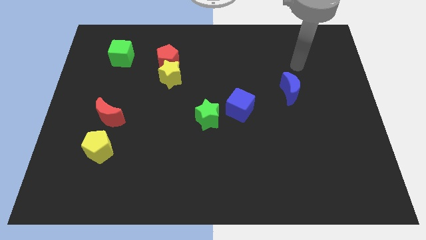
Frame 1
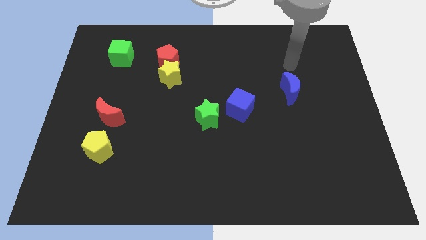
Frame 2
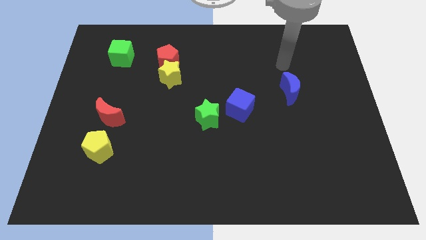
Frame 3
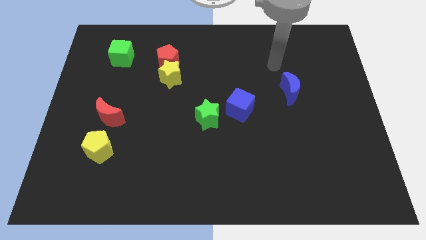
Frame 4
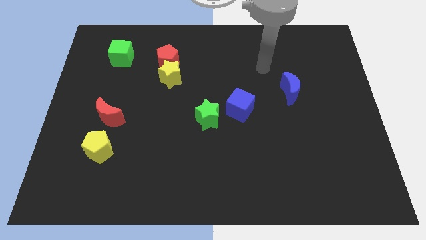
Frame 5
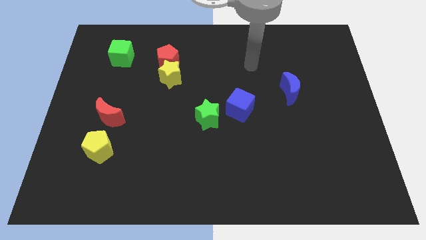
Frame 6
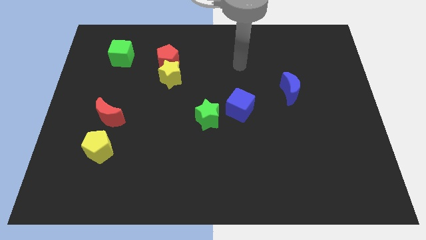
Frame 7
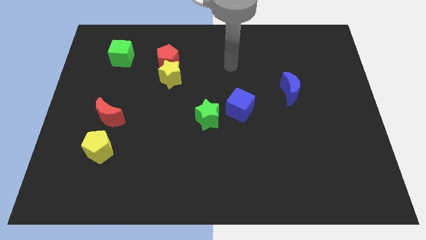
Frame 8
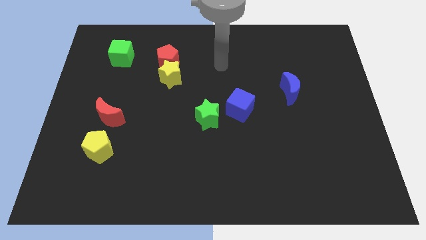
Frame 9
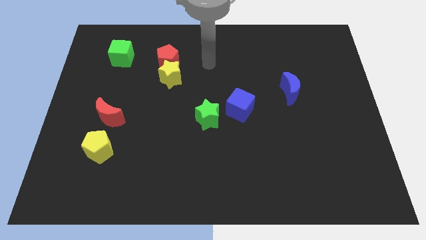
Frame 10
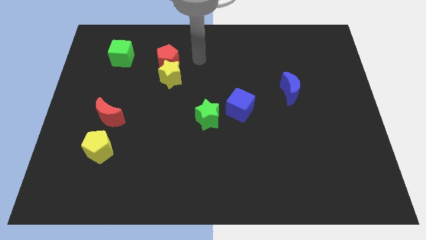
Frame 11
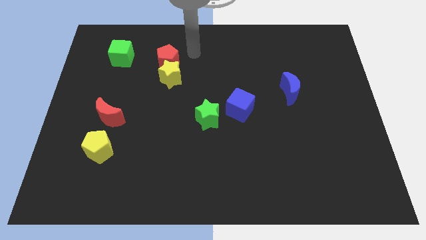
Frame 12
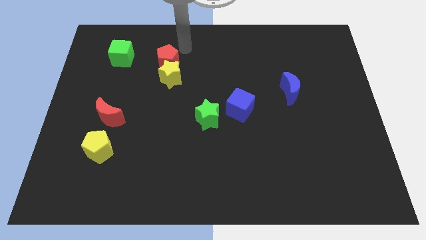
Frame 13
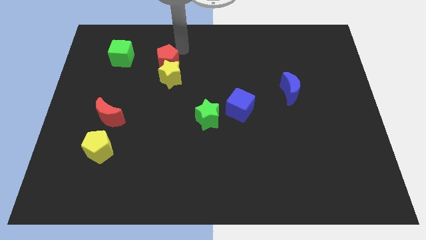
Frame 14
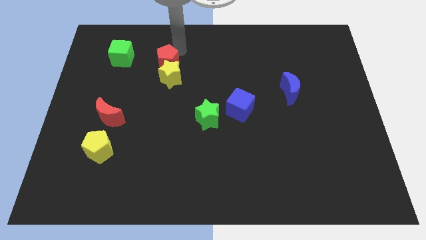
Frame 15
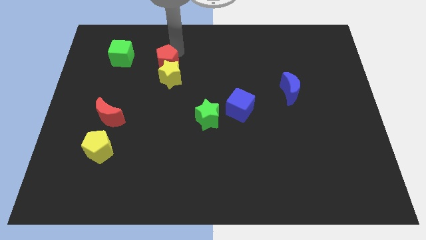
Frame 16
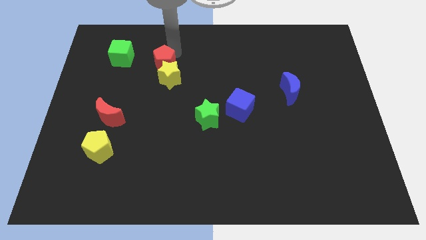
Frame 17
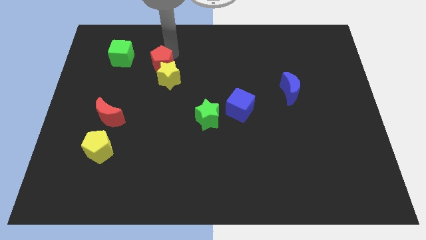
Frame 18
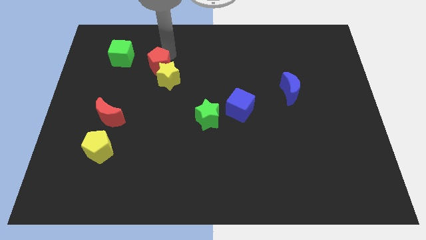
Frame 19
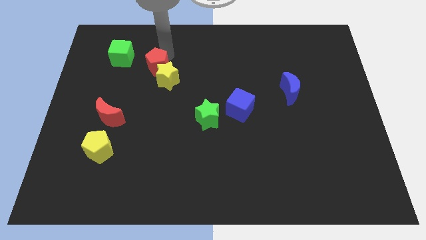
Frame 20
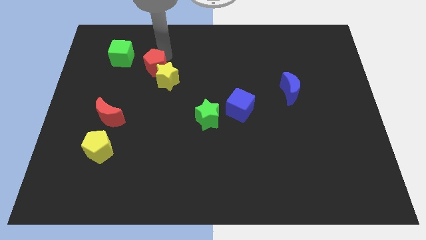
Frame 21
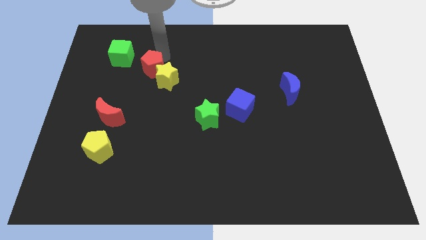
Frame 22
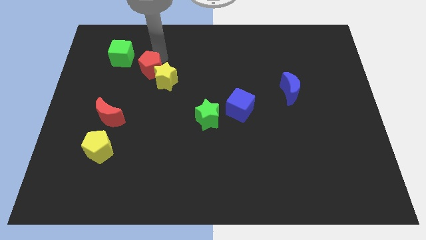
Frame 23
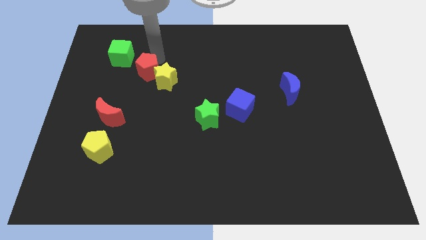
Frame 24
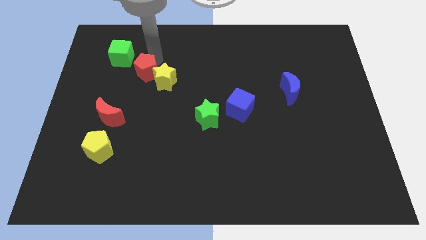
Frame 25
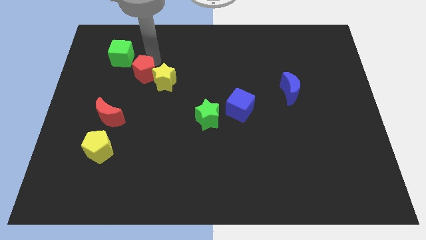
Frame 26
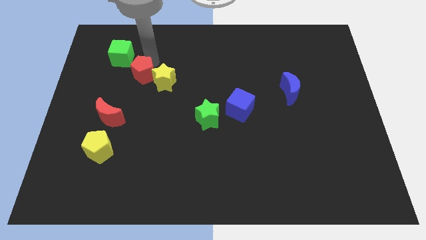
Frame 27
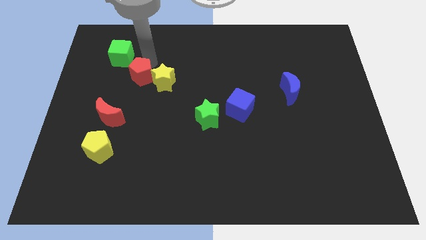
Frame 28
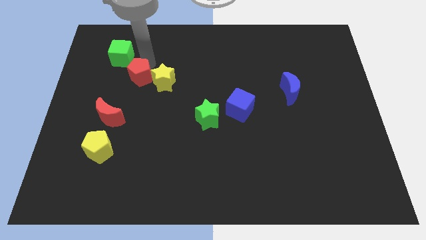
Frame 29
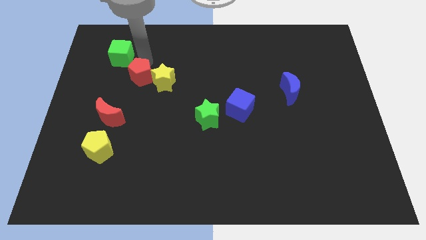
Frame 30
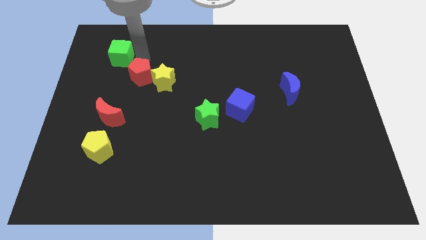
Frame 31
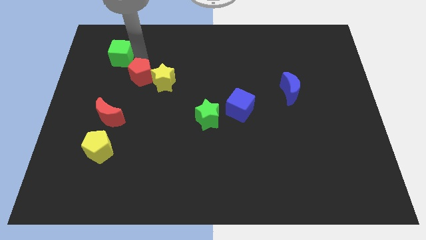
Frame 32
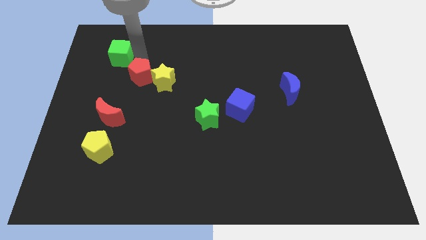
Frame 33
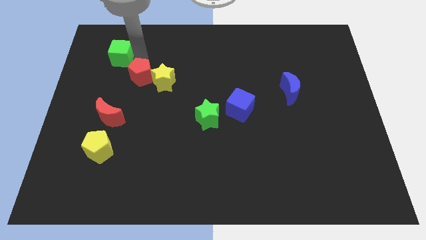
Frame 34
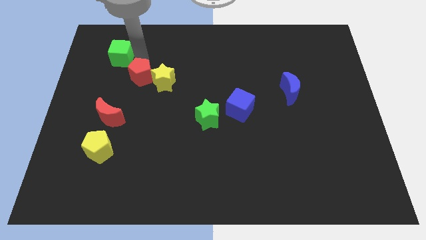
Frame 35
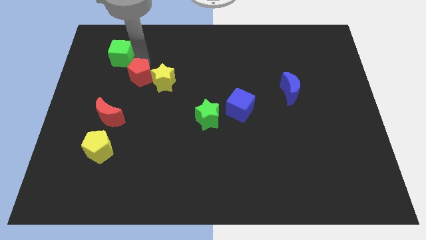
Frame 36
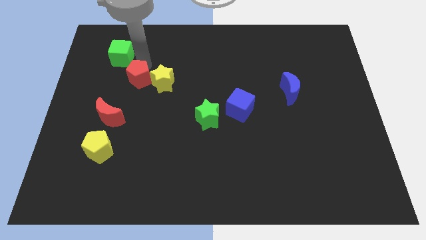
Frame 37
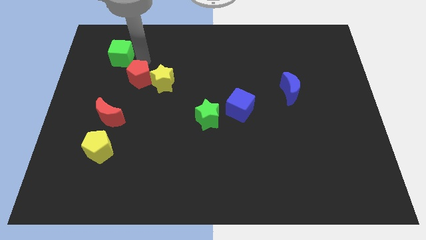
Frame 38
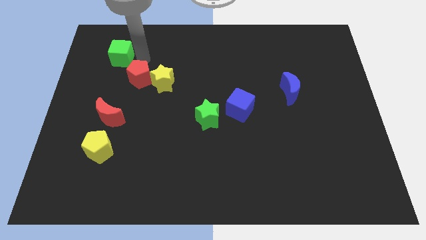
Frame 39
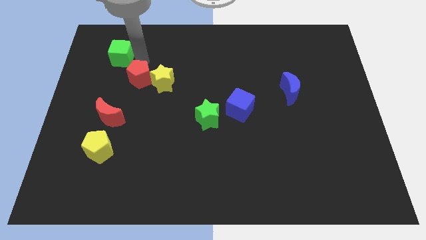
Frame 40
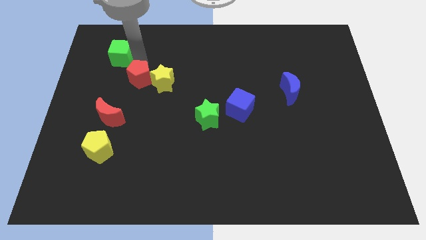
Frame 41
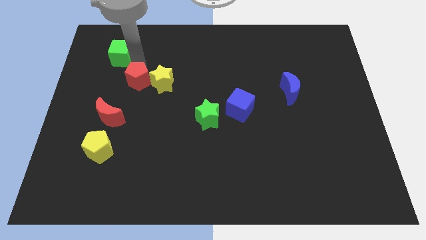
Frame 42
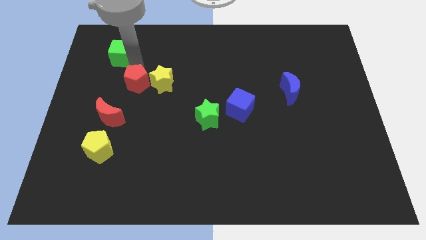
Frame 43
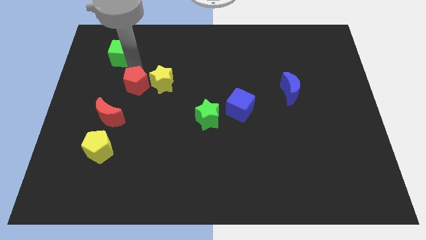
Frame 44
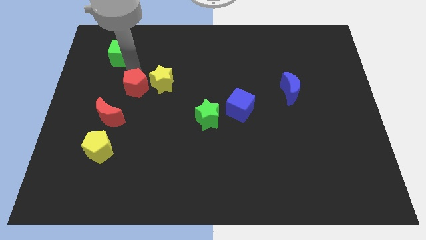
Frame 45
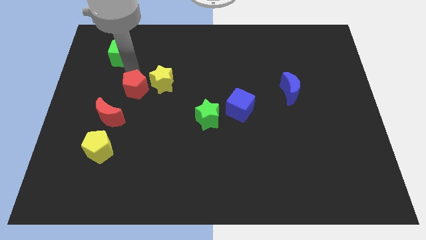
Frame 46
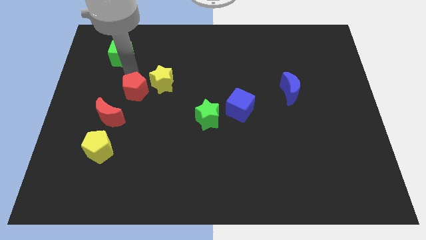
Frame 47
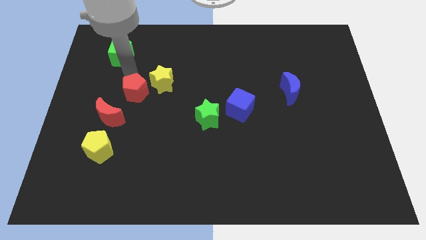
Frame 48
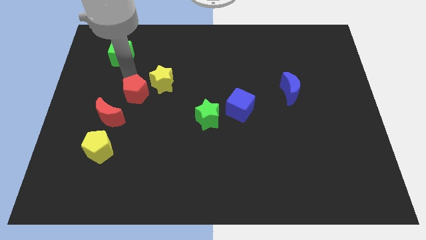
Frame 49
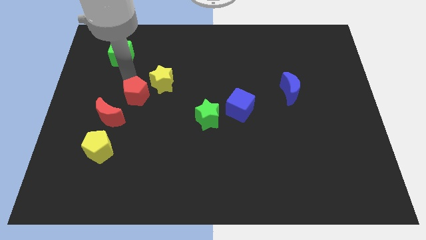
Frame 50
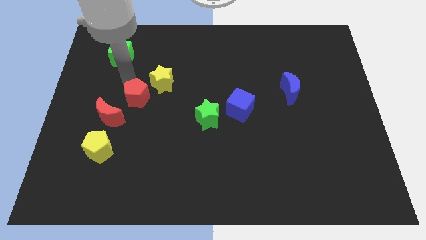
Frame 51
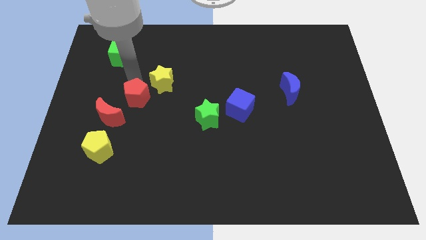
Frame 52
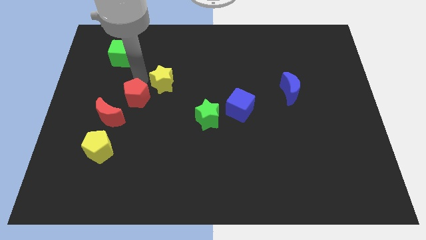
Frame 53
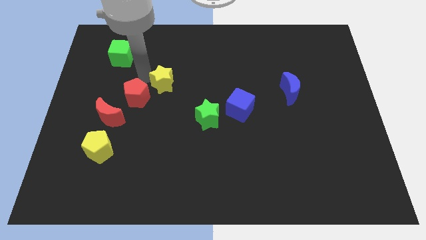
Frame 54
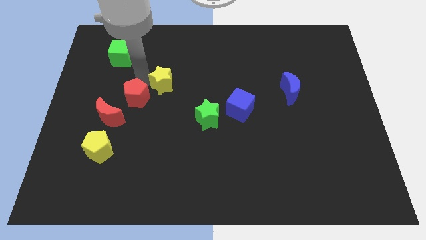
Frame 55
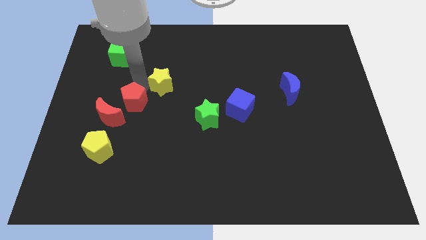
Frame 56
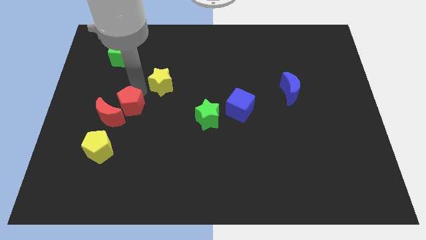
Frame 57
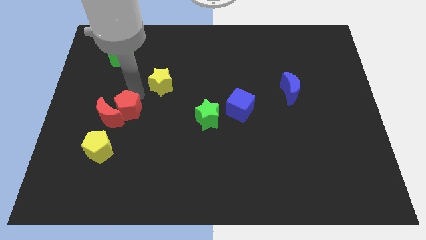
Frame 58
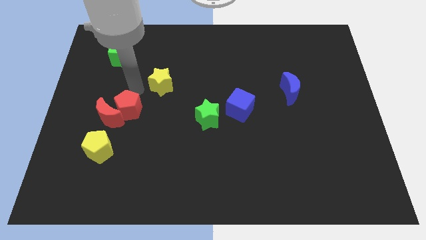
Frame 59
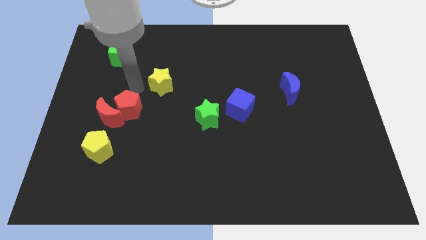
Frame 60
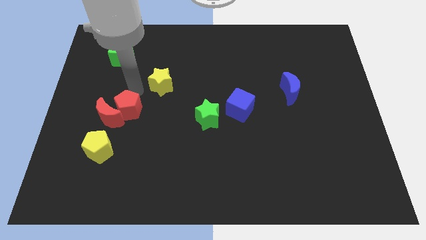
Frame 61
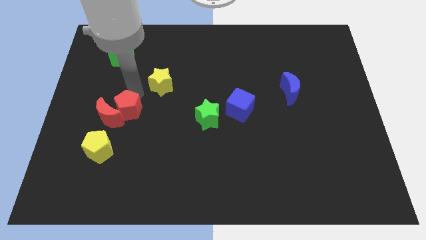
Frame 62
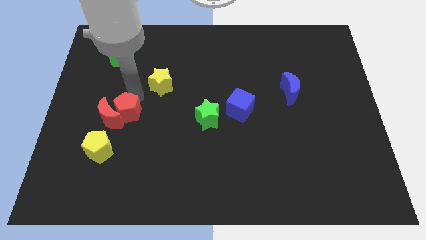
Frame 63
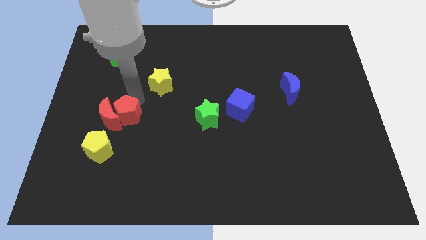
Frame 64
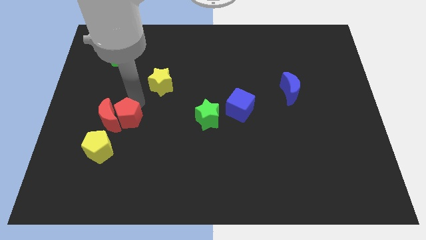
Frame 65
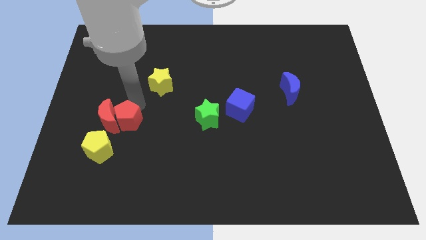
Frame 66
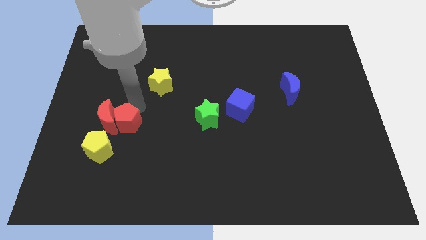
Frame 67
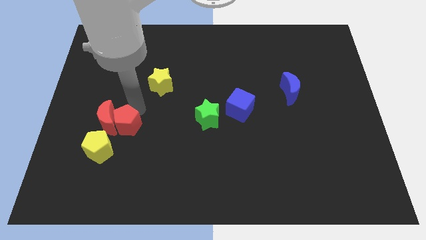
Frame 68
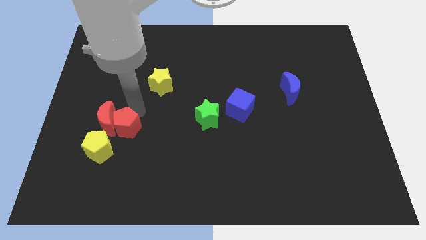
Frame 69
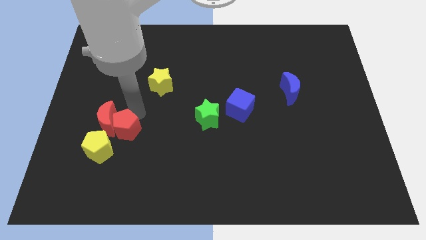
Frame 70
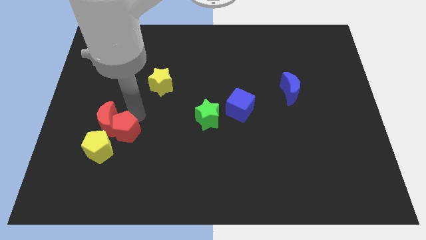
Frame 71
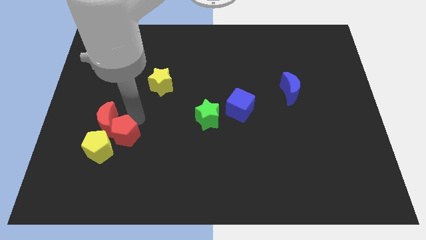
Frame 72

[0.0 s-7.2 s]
push the red pentagon below the red moon

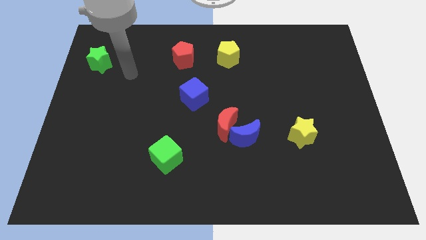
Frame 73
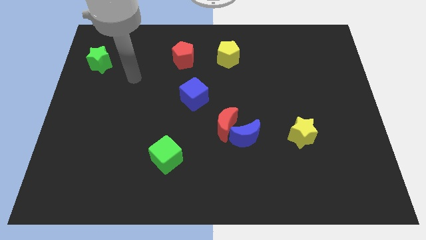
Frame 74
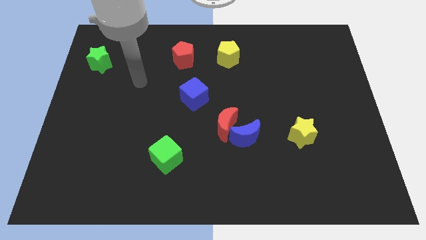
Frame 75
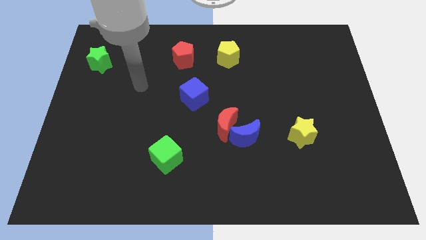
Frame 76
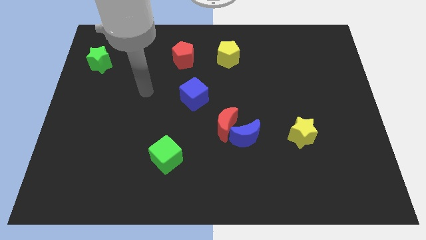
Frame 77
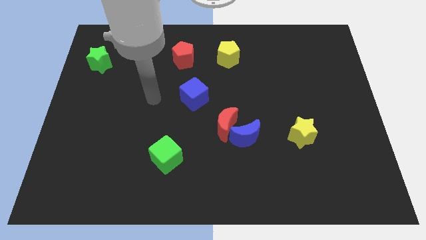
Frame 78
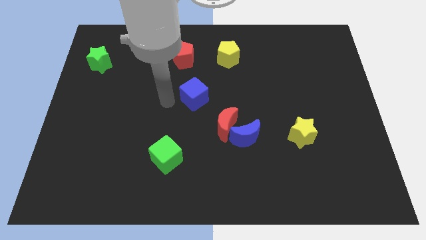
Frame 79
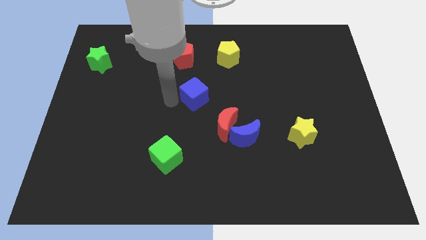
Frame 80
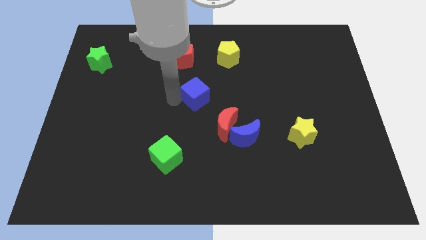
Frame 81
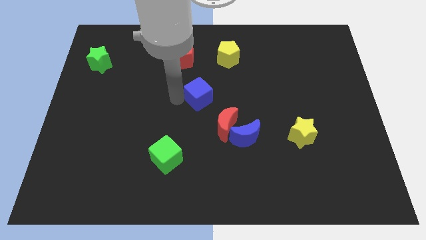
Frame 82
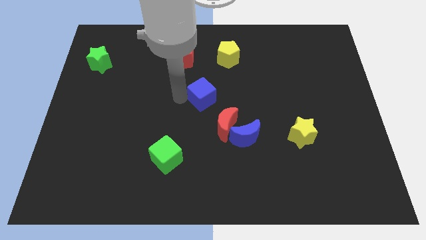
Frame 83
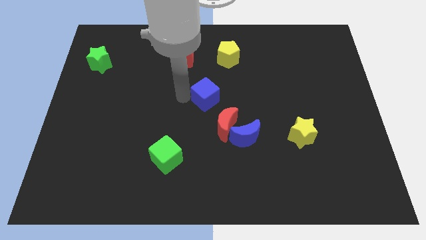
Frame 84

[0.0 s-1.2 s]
push the blue cube to the top of the red moon
